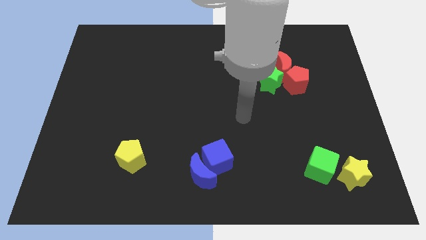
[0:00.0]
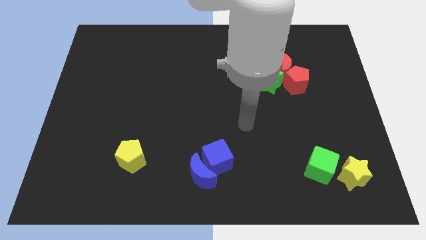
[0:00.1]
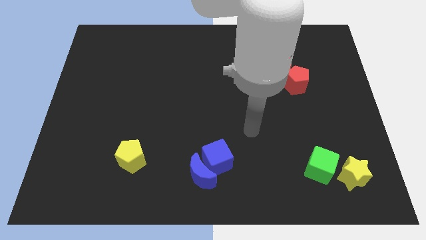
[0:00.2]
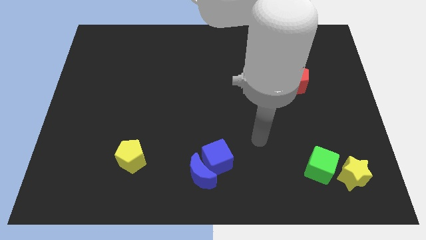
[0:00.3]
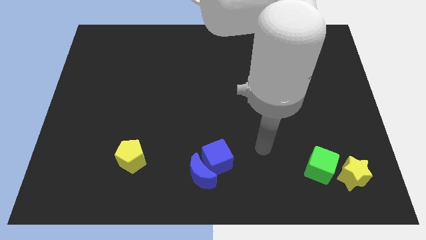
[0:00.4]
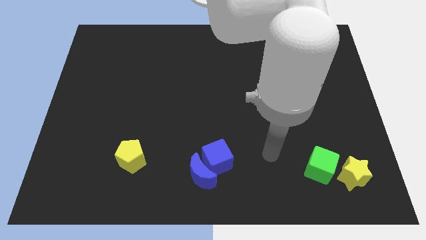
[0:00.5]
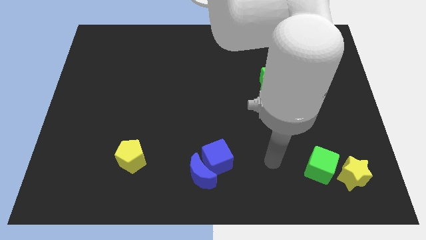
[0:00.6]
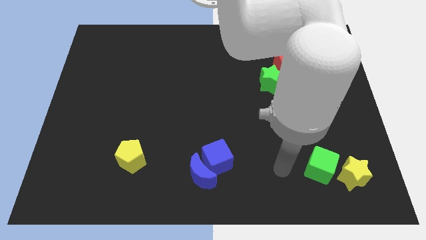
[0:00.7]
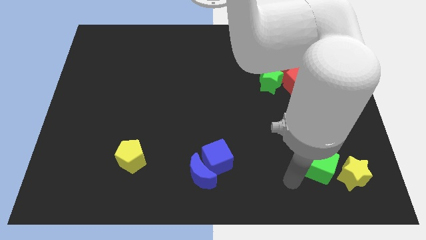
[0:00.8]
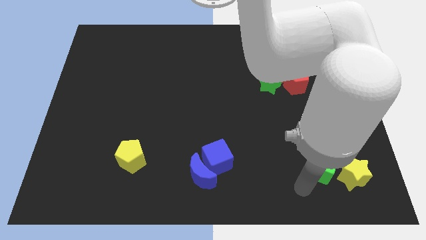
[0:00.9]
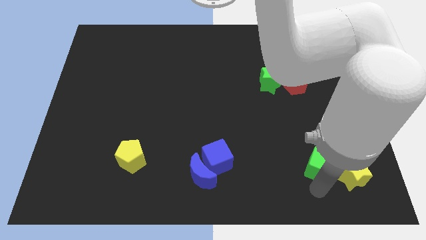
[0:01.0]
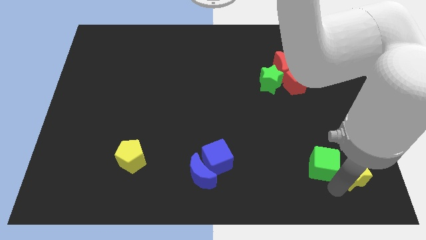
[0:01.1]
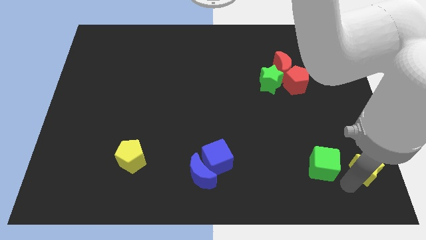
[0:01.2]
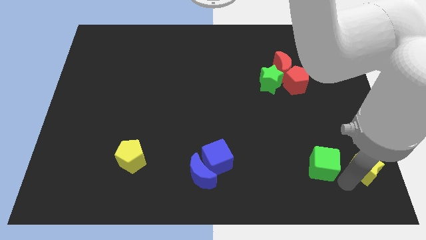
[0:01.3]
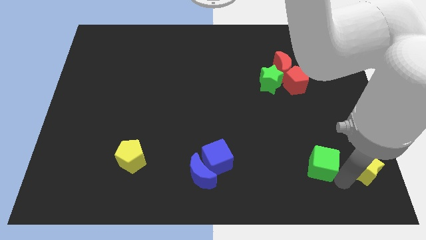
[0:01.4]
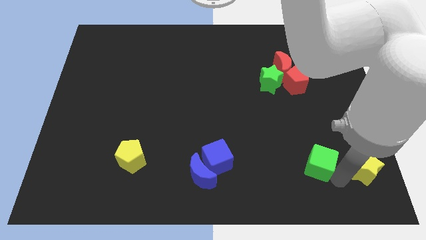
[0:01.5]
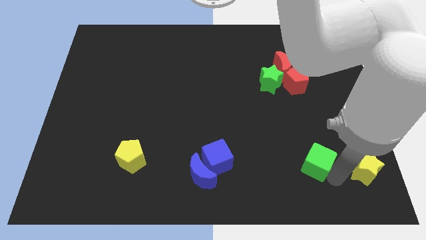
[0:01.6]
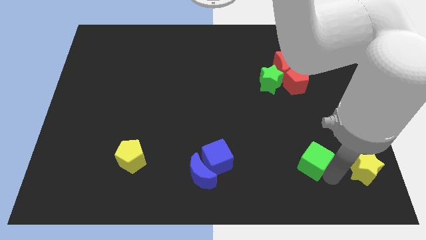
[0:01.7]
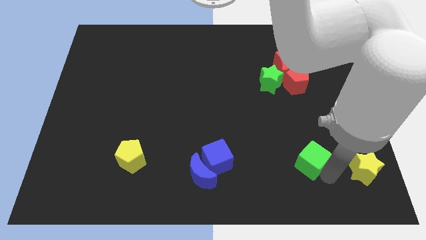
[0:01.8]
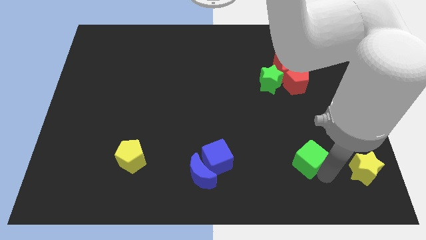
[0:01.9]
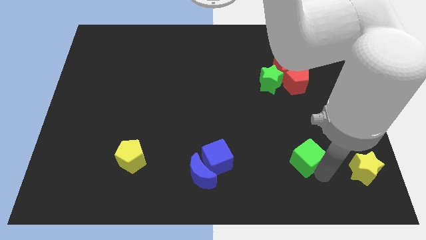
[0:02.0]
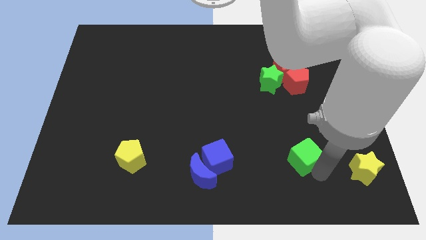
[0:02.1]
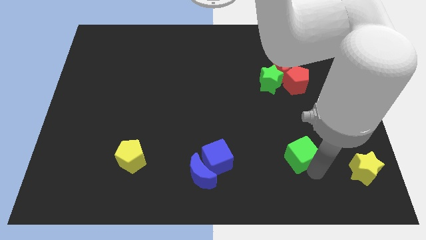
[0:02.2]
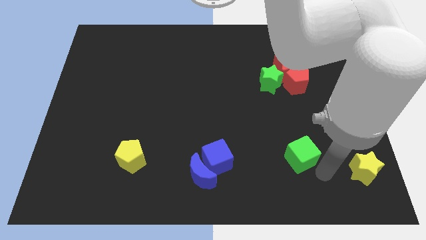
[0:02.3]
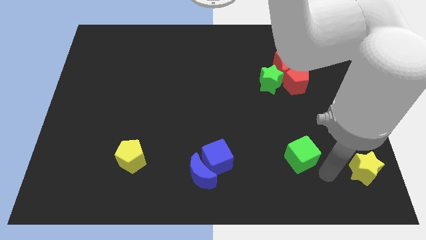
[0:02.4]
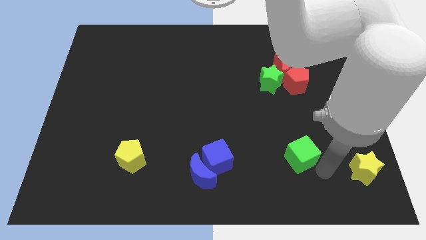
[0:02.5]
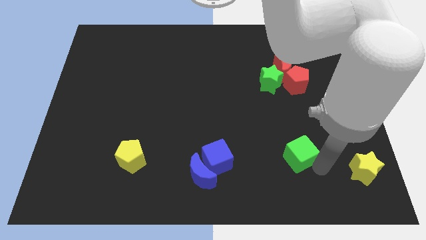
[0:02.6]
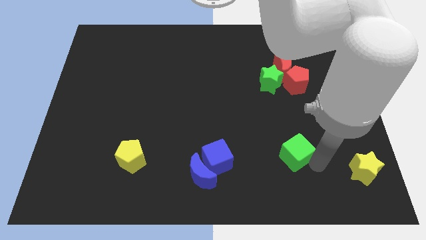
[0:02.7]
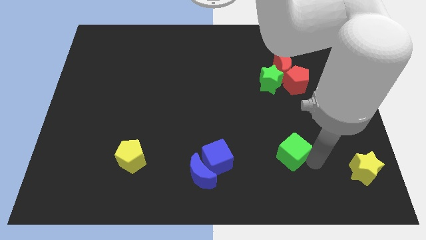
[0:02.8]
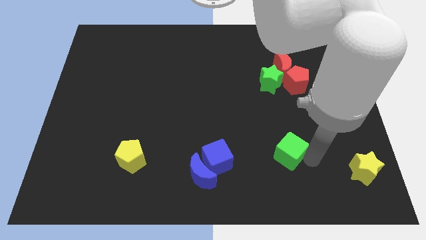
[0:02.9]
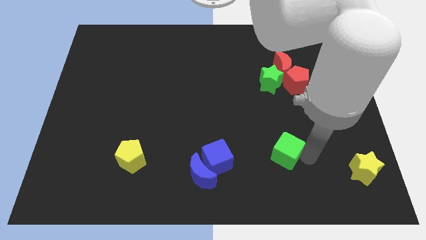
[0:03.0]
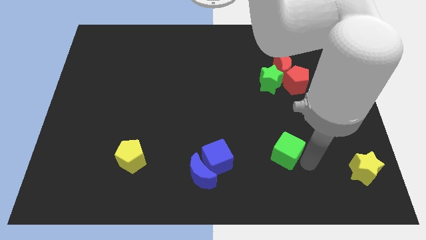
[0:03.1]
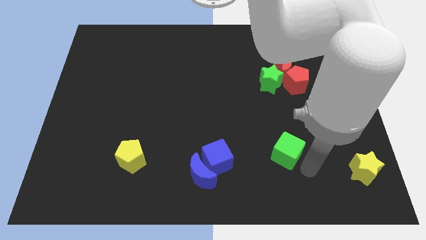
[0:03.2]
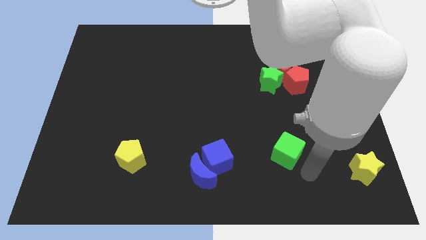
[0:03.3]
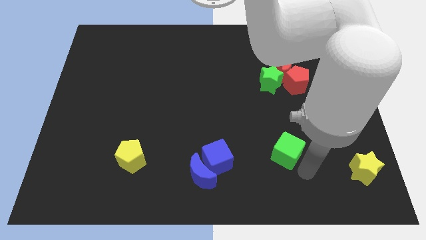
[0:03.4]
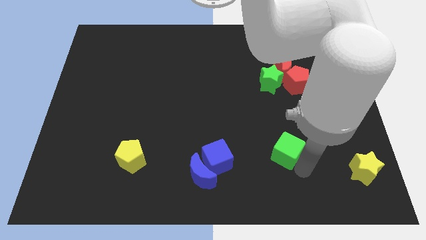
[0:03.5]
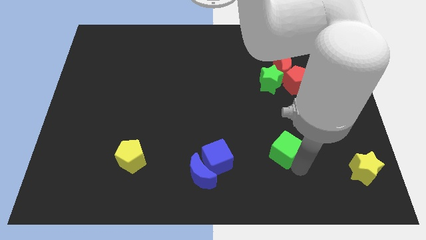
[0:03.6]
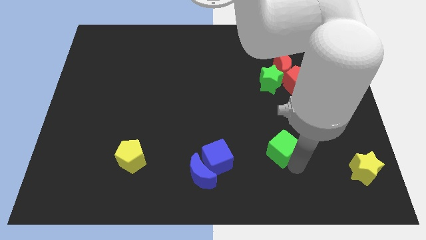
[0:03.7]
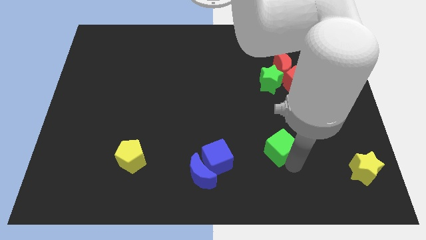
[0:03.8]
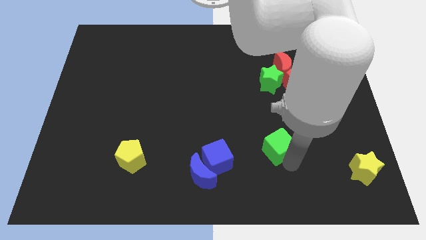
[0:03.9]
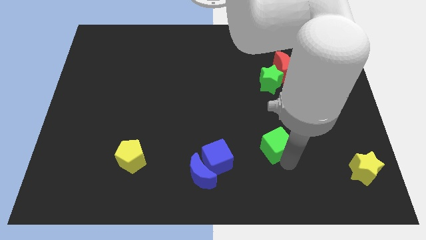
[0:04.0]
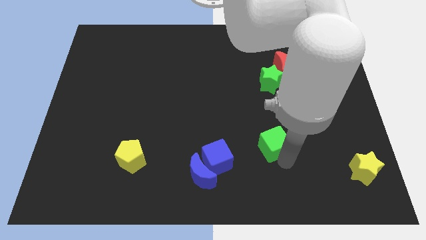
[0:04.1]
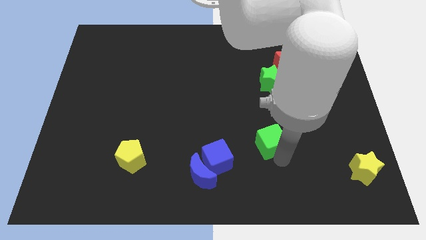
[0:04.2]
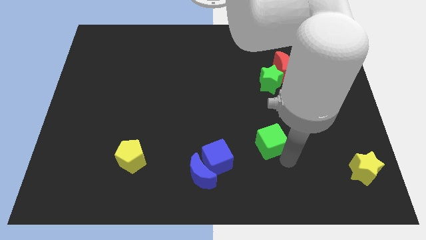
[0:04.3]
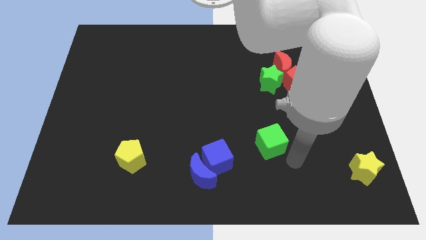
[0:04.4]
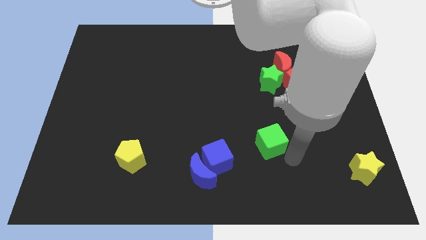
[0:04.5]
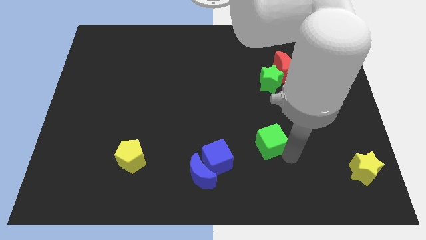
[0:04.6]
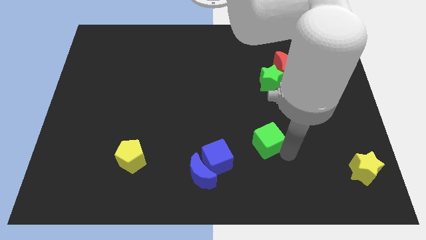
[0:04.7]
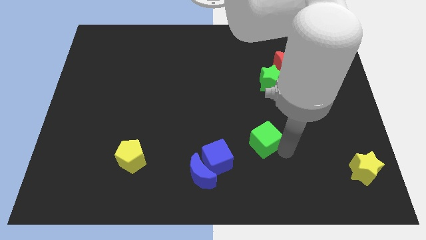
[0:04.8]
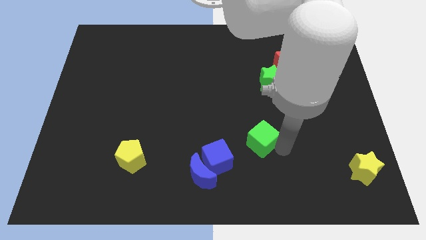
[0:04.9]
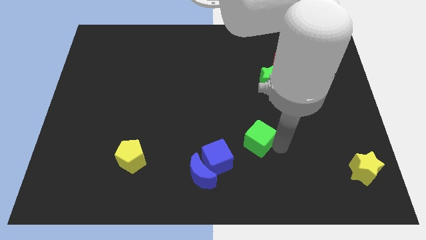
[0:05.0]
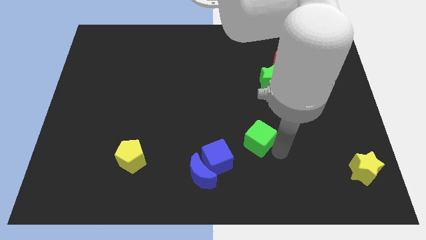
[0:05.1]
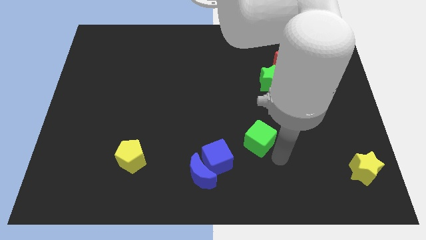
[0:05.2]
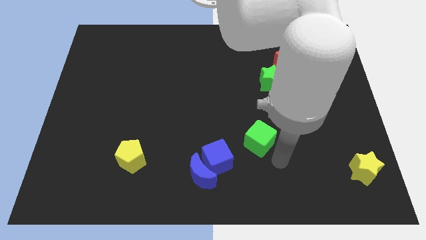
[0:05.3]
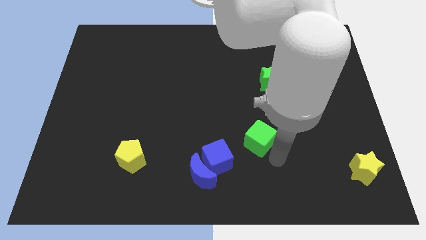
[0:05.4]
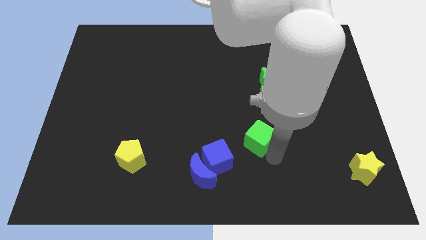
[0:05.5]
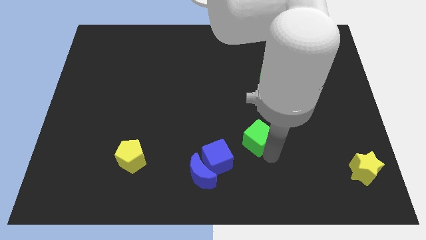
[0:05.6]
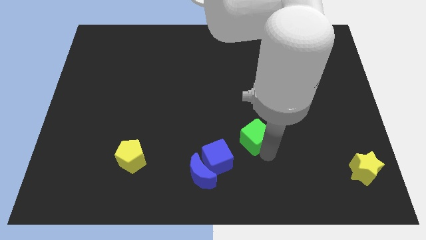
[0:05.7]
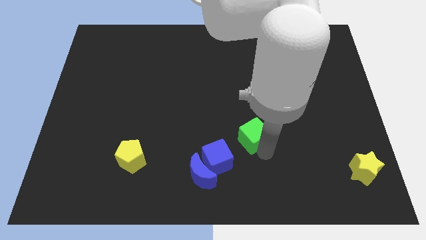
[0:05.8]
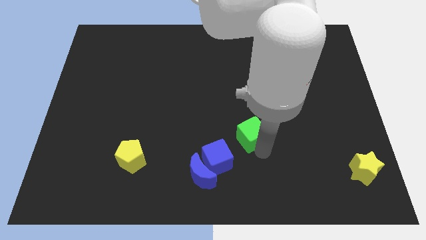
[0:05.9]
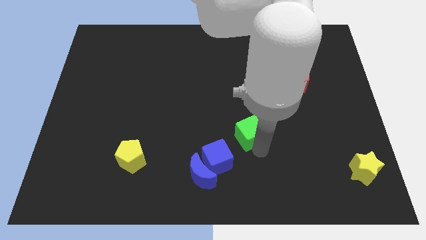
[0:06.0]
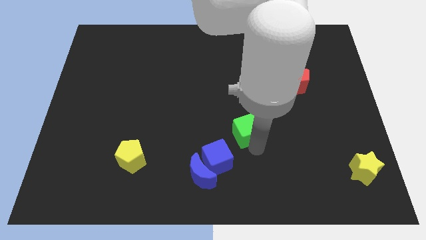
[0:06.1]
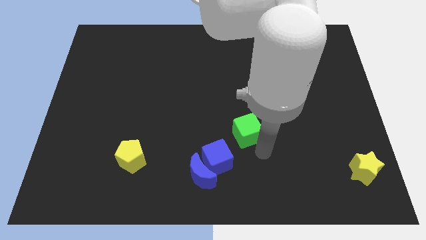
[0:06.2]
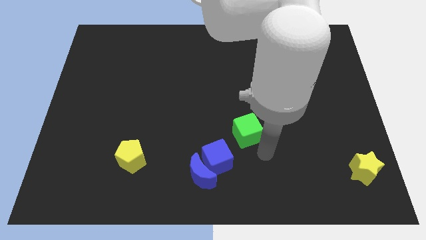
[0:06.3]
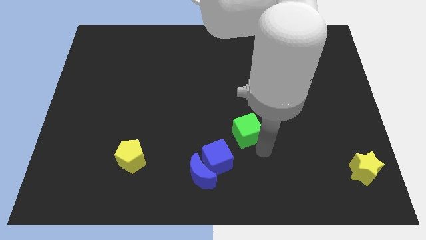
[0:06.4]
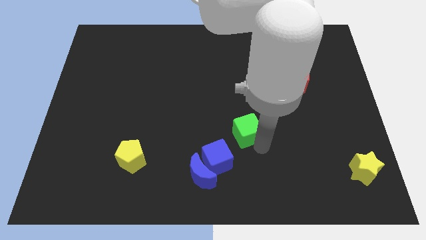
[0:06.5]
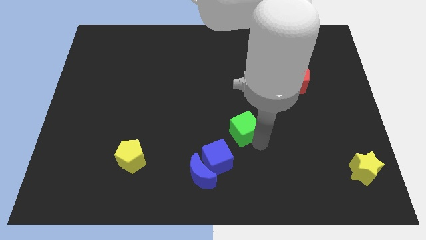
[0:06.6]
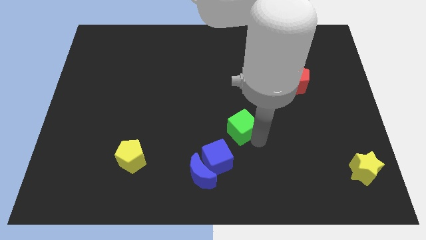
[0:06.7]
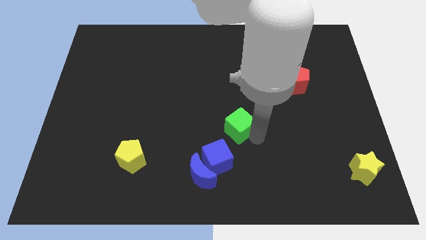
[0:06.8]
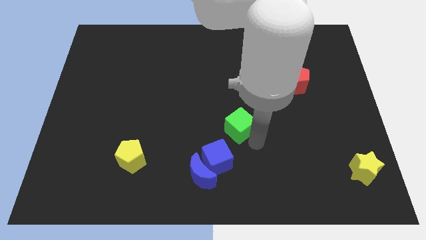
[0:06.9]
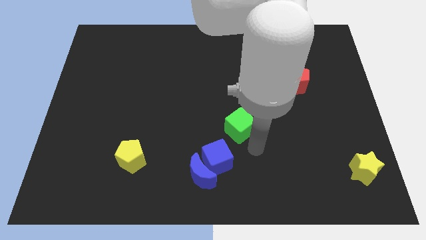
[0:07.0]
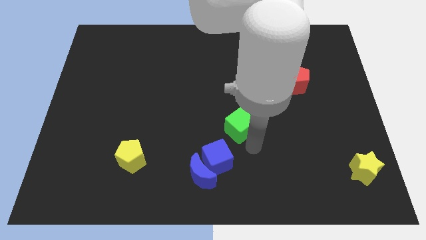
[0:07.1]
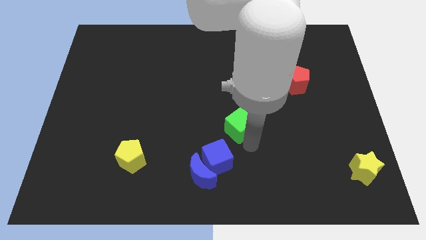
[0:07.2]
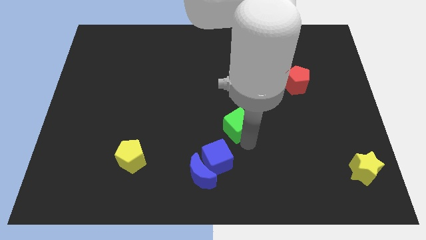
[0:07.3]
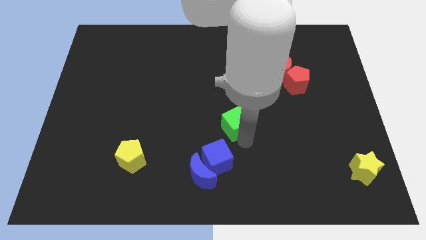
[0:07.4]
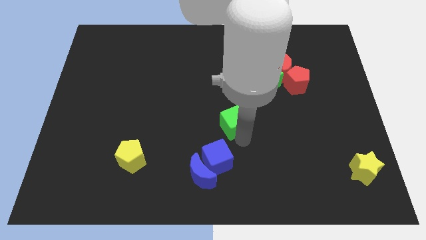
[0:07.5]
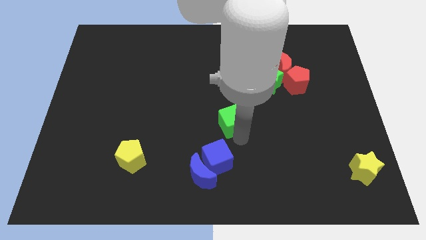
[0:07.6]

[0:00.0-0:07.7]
slide the green cube diagonally upwards and to the left

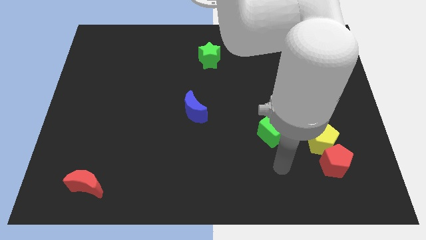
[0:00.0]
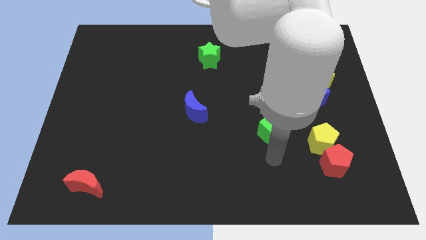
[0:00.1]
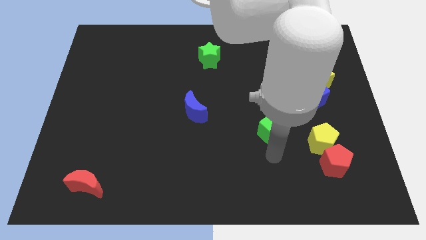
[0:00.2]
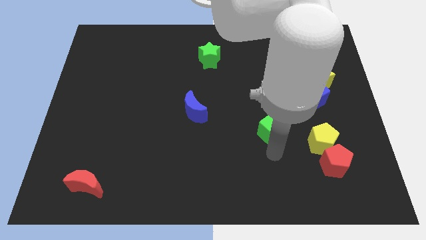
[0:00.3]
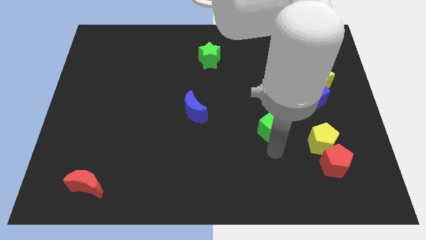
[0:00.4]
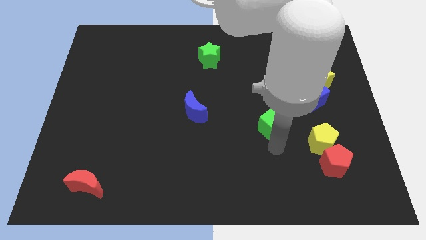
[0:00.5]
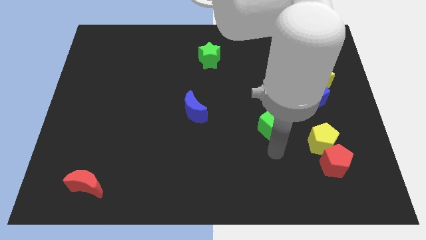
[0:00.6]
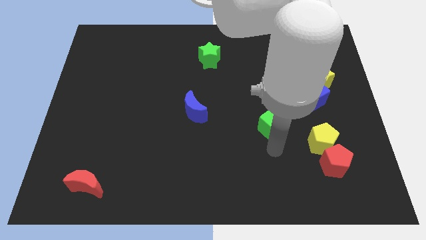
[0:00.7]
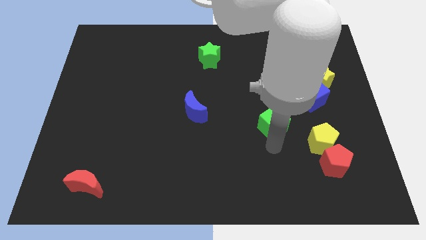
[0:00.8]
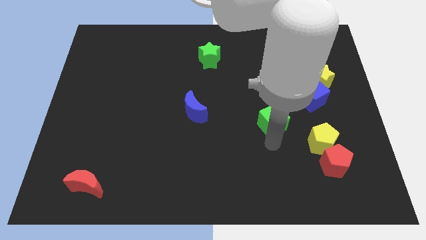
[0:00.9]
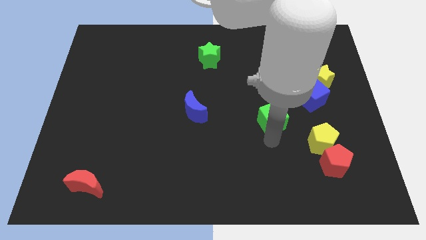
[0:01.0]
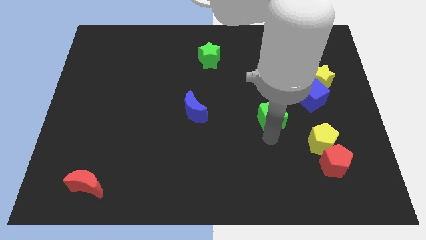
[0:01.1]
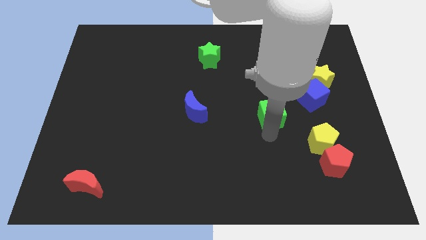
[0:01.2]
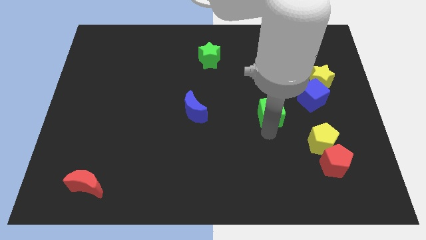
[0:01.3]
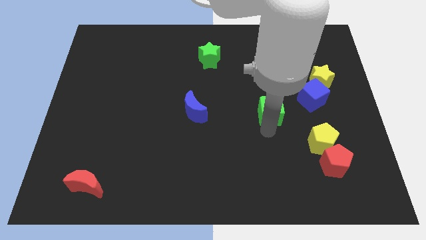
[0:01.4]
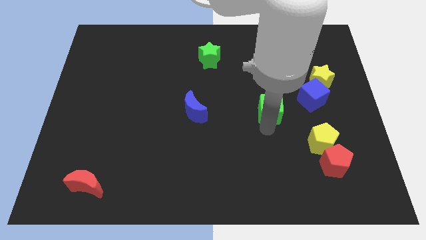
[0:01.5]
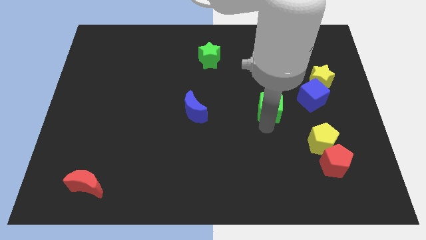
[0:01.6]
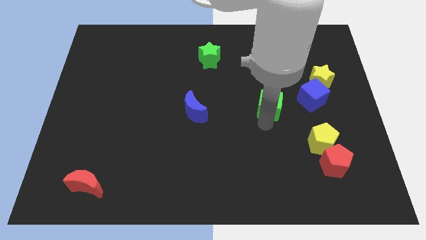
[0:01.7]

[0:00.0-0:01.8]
slightly move the green cube upwards
